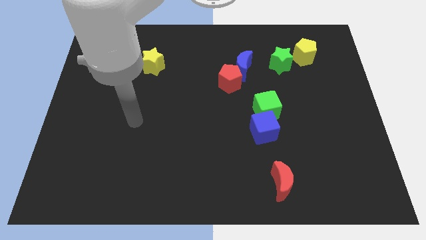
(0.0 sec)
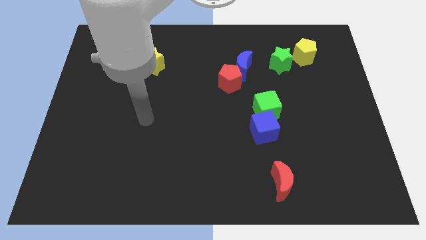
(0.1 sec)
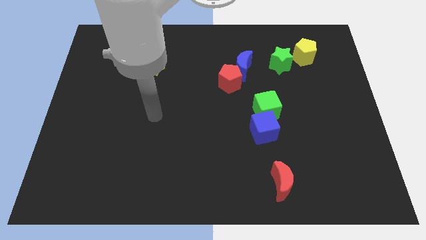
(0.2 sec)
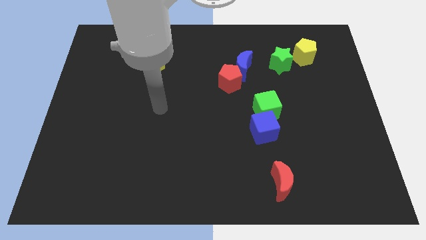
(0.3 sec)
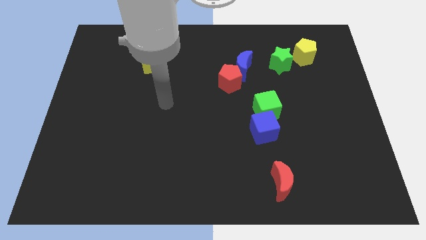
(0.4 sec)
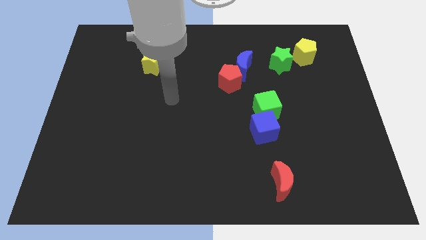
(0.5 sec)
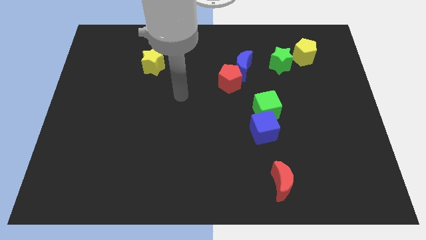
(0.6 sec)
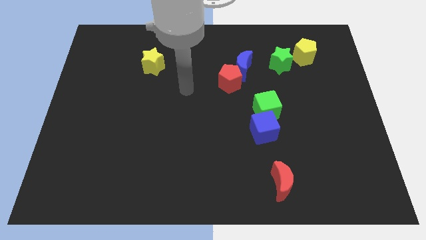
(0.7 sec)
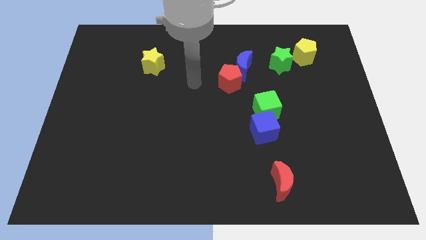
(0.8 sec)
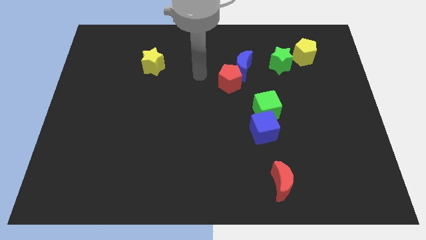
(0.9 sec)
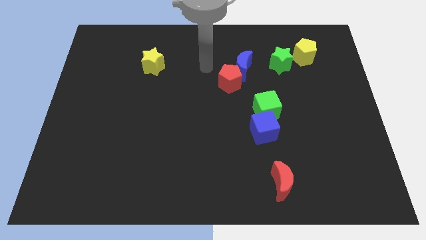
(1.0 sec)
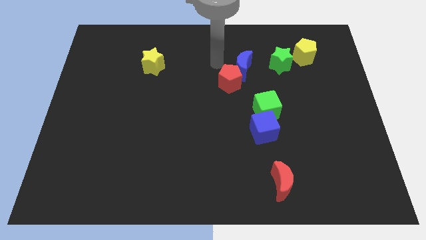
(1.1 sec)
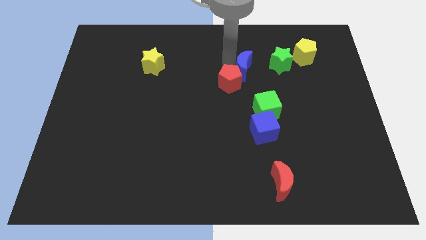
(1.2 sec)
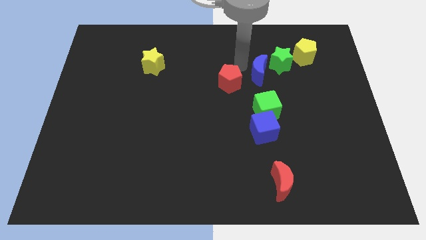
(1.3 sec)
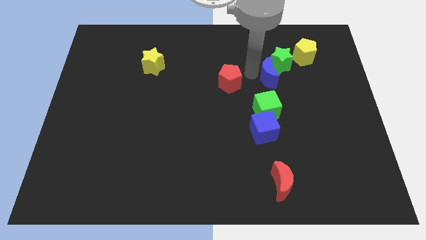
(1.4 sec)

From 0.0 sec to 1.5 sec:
separate the red pentagon from the blue moon

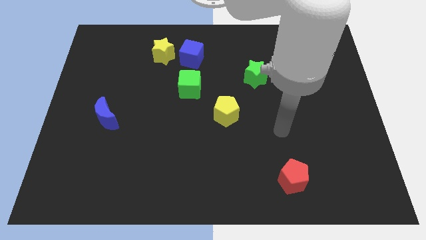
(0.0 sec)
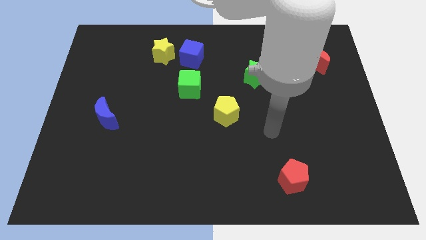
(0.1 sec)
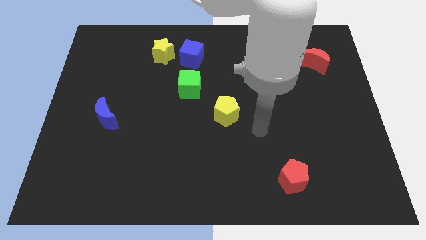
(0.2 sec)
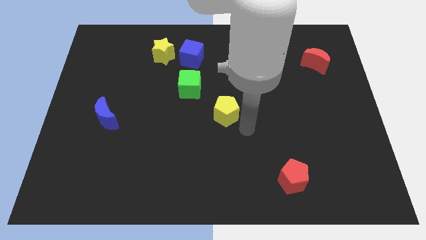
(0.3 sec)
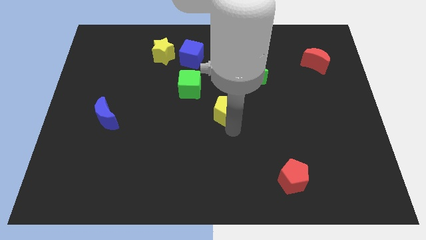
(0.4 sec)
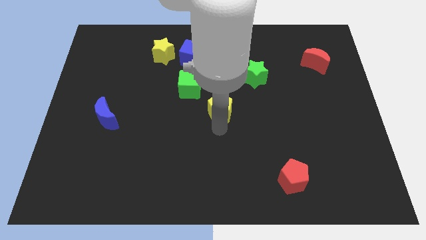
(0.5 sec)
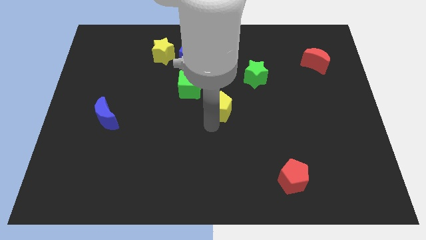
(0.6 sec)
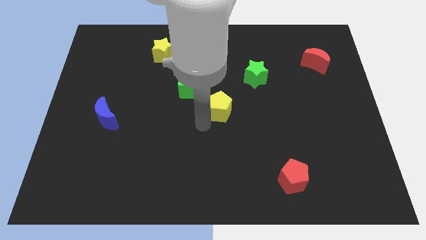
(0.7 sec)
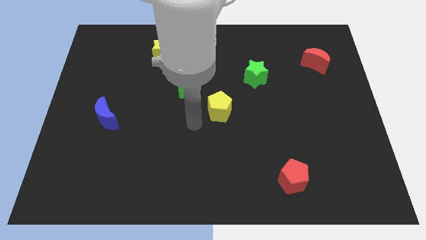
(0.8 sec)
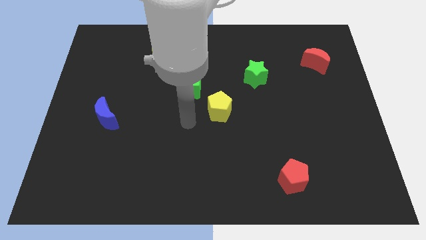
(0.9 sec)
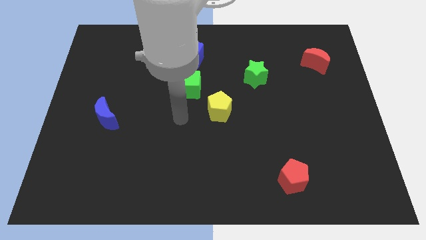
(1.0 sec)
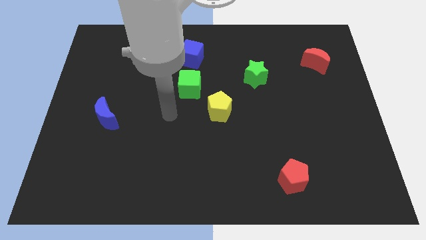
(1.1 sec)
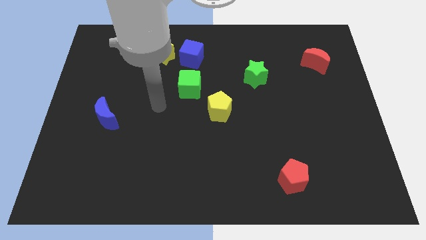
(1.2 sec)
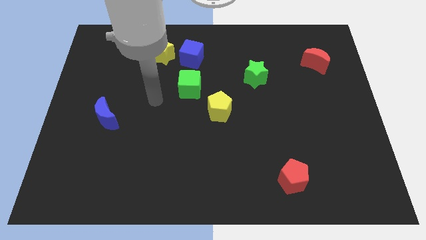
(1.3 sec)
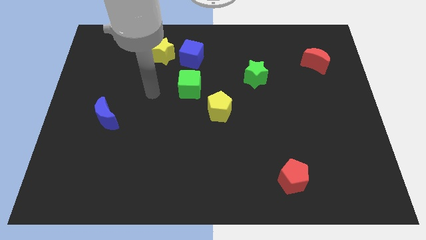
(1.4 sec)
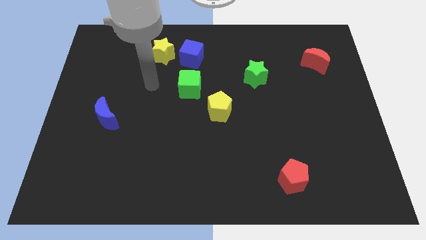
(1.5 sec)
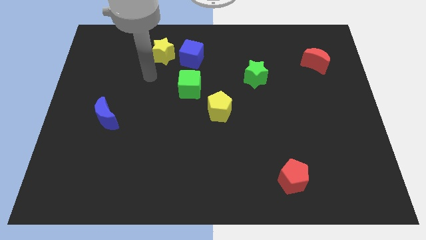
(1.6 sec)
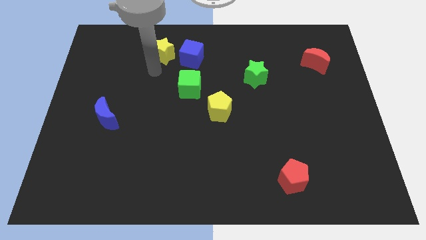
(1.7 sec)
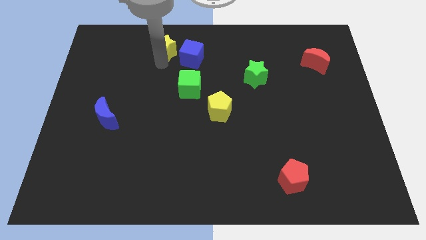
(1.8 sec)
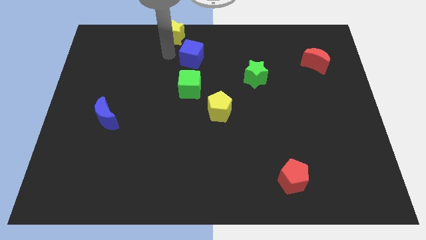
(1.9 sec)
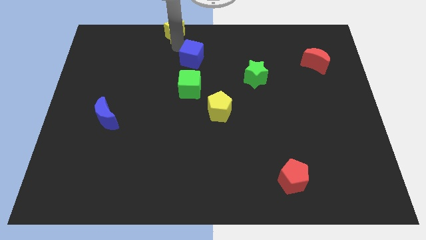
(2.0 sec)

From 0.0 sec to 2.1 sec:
separate the blue cube from the yellow star

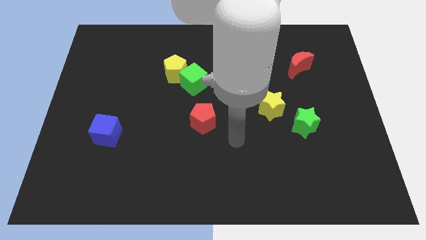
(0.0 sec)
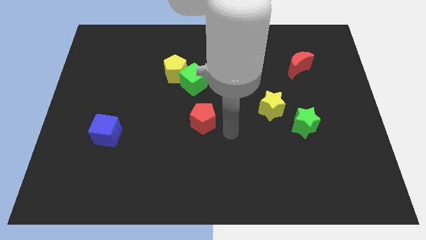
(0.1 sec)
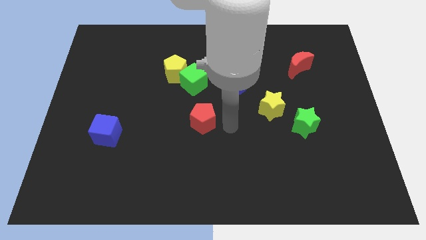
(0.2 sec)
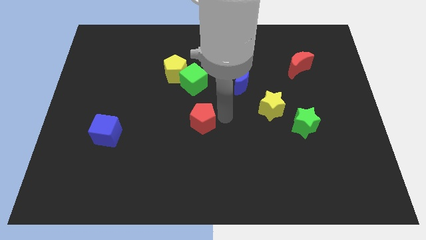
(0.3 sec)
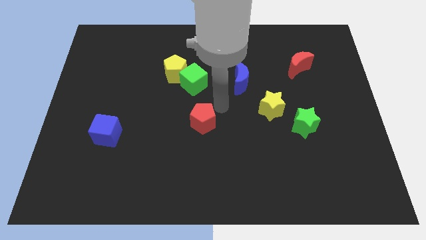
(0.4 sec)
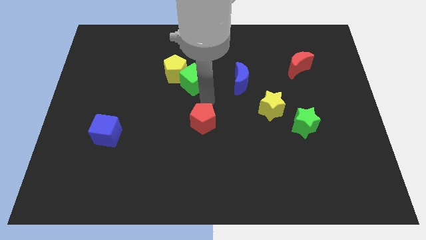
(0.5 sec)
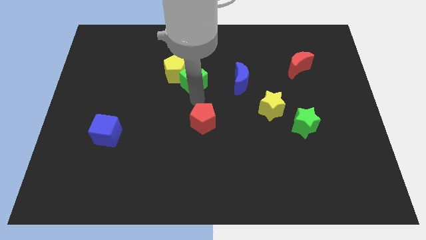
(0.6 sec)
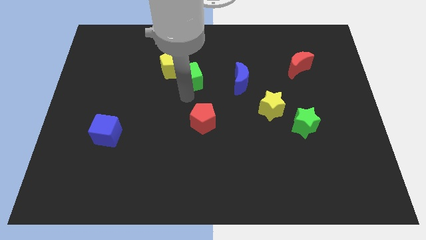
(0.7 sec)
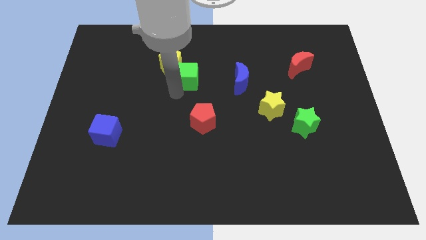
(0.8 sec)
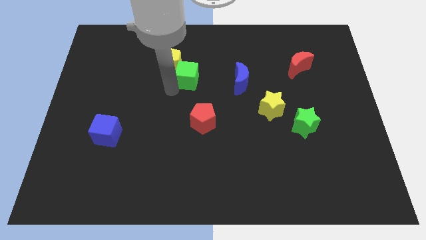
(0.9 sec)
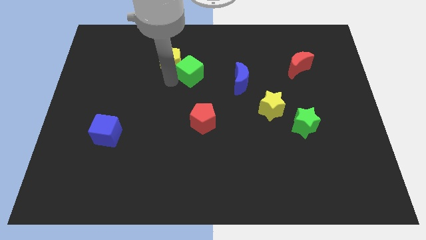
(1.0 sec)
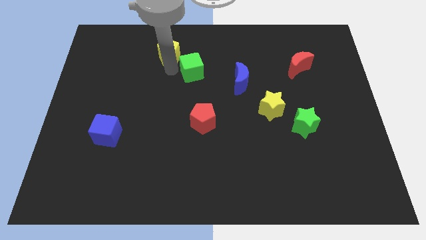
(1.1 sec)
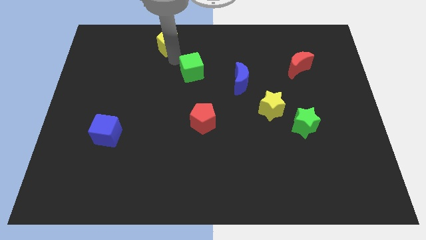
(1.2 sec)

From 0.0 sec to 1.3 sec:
move the green cube away from the yellow pentagon

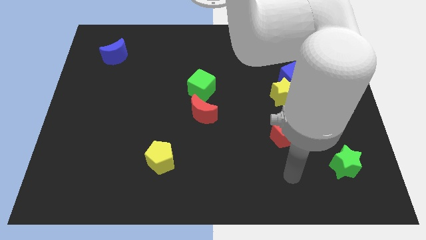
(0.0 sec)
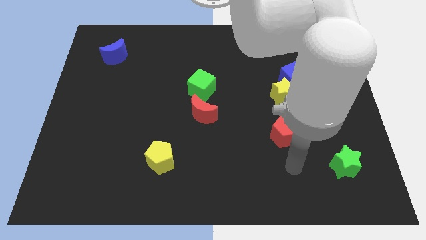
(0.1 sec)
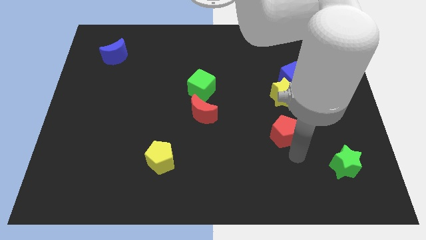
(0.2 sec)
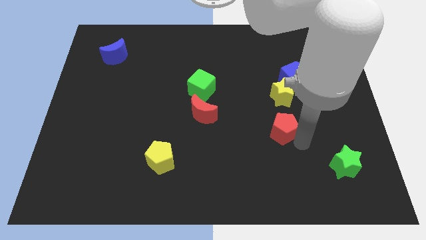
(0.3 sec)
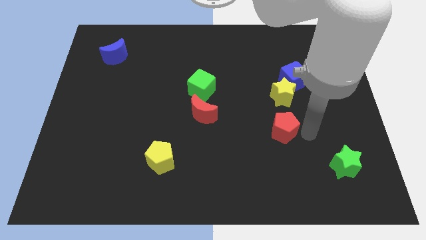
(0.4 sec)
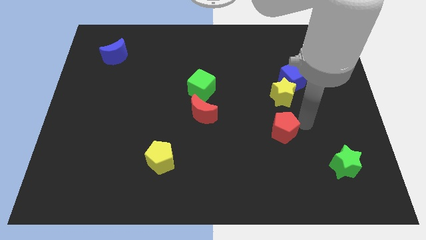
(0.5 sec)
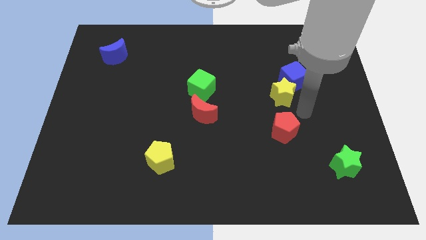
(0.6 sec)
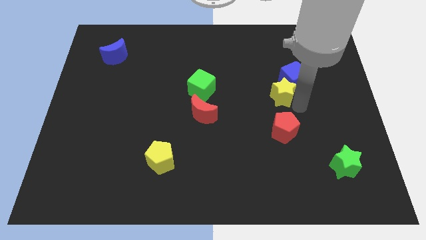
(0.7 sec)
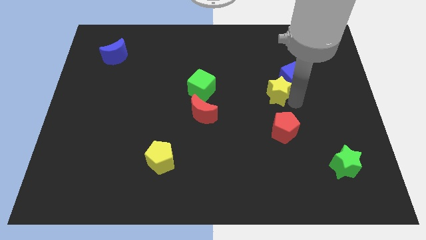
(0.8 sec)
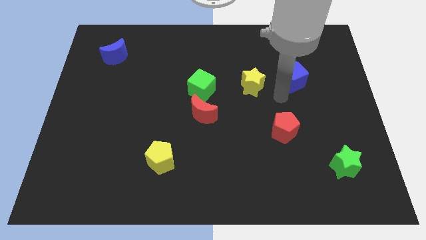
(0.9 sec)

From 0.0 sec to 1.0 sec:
pull the blue cube apart from the yellow star

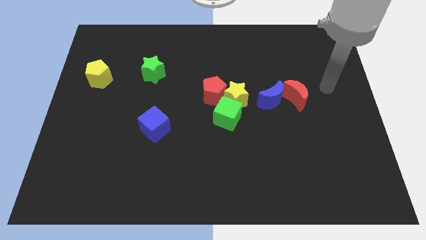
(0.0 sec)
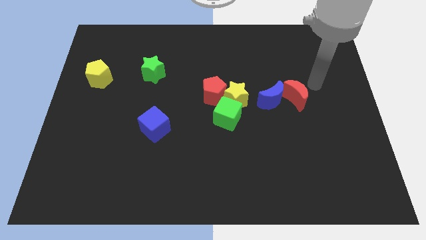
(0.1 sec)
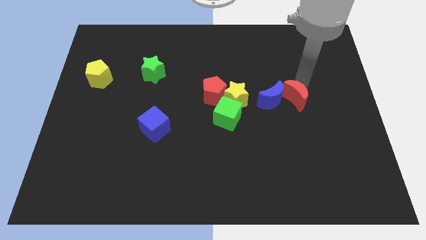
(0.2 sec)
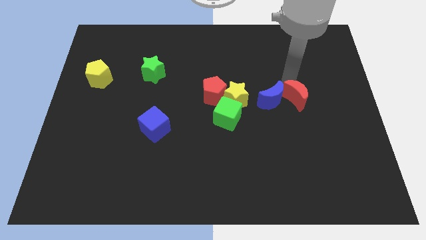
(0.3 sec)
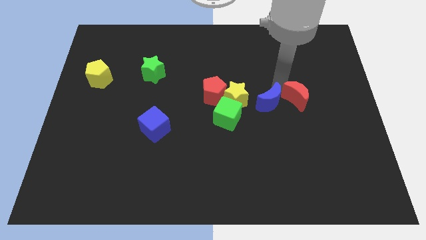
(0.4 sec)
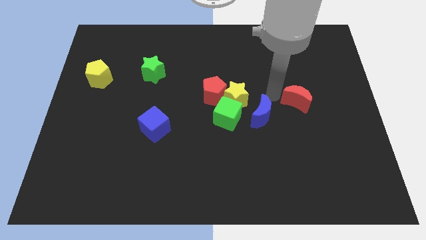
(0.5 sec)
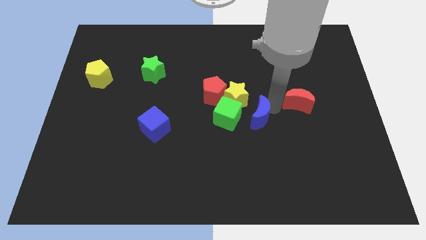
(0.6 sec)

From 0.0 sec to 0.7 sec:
move the red moon away from the blue moon

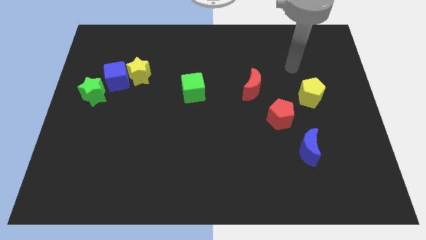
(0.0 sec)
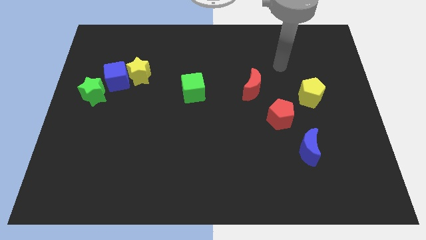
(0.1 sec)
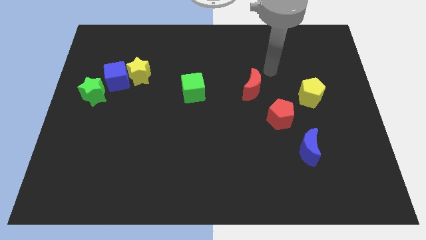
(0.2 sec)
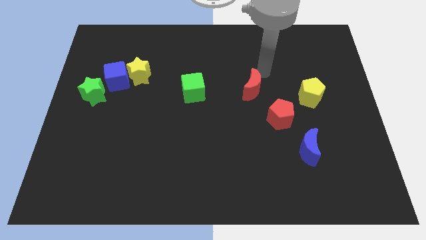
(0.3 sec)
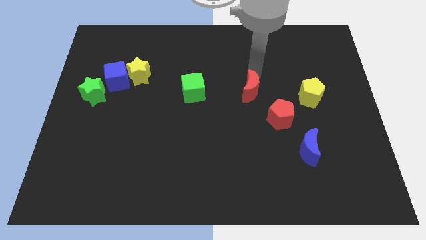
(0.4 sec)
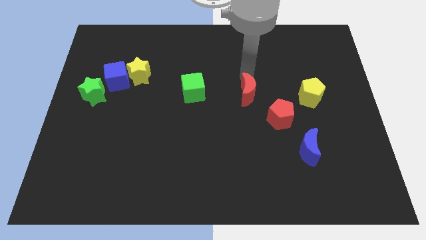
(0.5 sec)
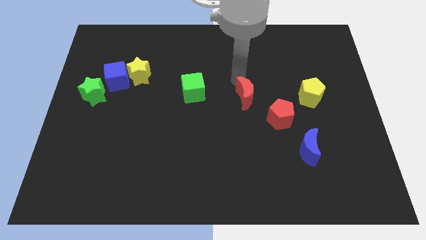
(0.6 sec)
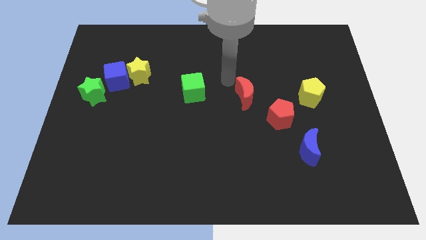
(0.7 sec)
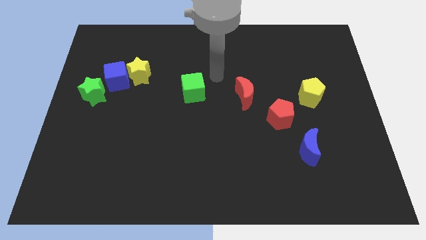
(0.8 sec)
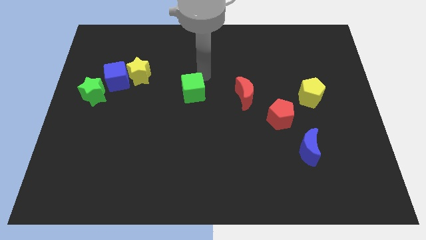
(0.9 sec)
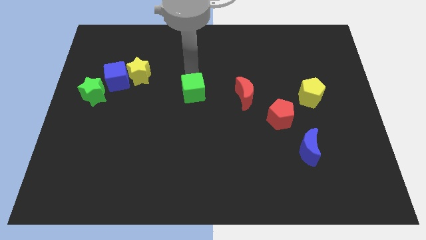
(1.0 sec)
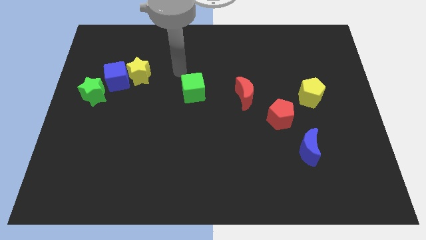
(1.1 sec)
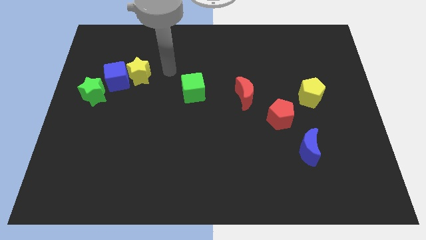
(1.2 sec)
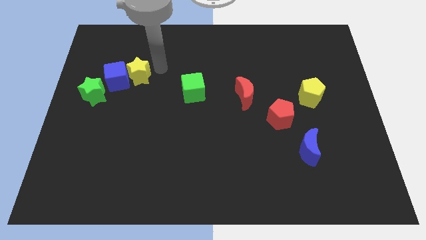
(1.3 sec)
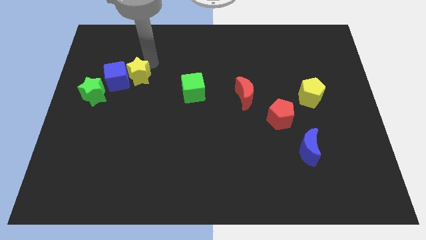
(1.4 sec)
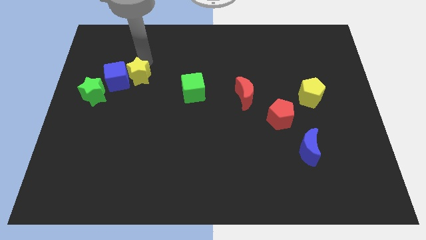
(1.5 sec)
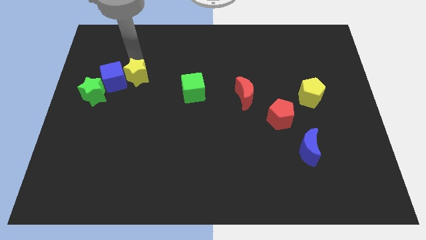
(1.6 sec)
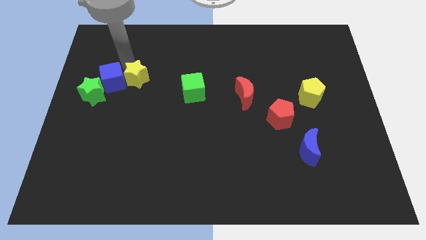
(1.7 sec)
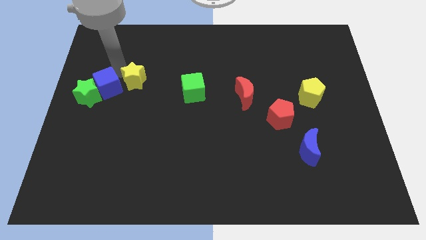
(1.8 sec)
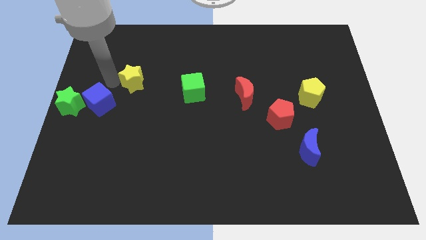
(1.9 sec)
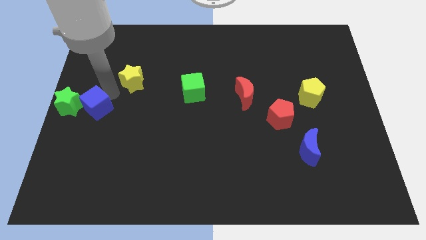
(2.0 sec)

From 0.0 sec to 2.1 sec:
pull the yellow star apart from the blue cube

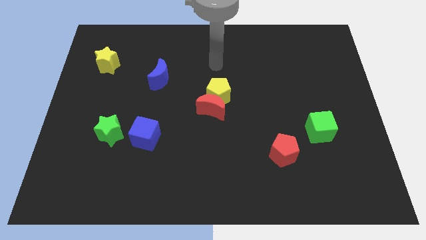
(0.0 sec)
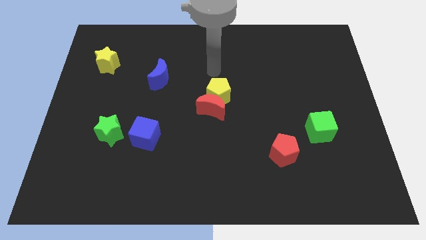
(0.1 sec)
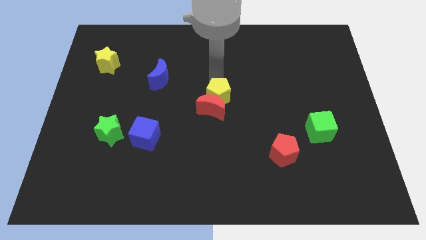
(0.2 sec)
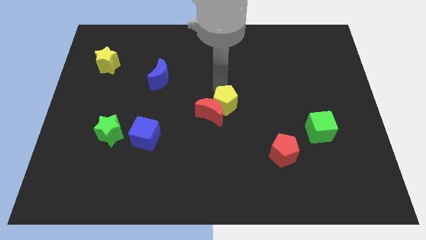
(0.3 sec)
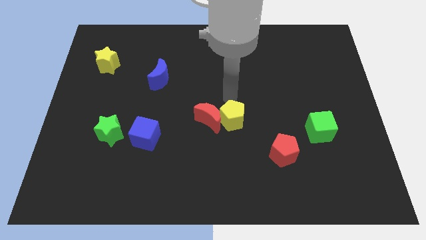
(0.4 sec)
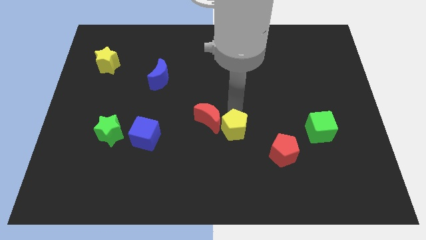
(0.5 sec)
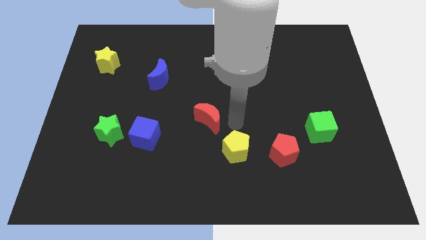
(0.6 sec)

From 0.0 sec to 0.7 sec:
move the red moon away from the yellow pentagon
